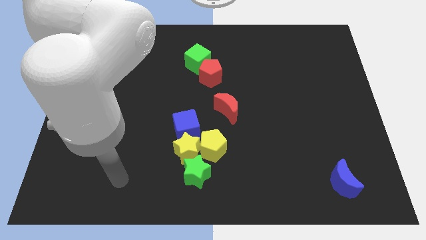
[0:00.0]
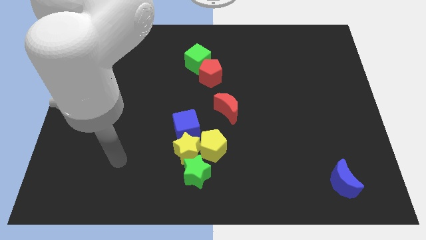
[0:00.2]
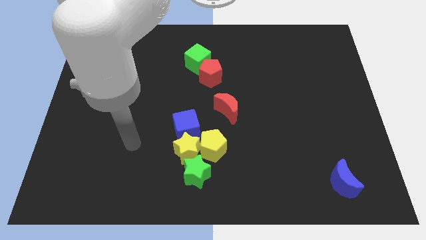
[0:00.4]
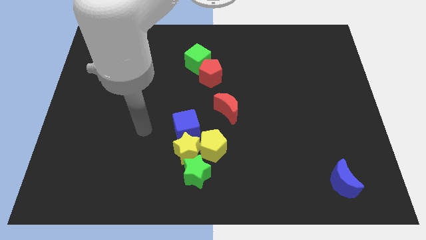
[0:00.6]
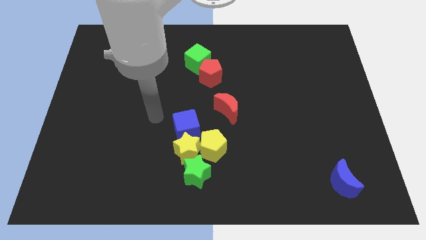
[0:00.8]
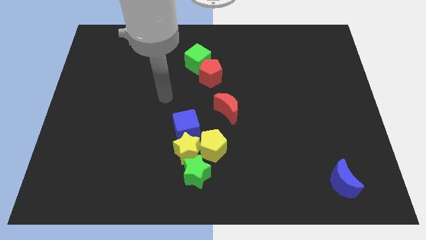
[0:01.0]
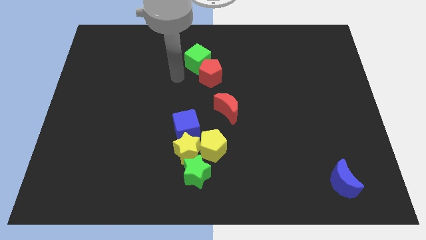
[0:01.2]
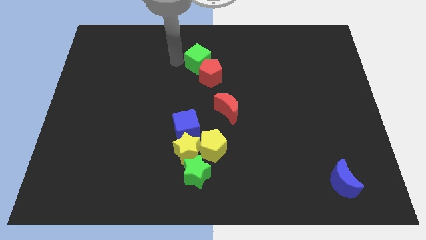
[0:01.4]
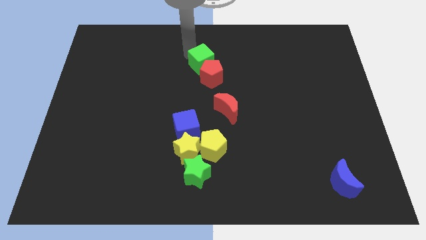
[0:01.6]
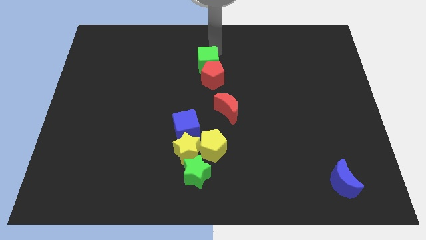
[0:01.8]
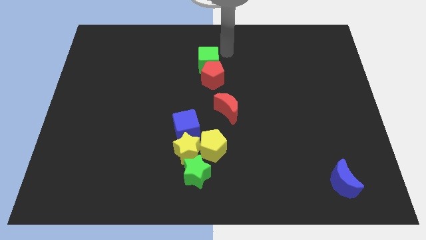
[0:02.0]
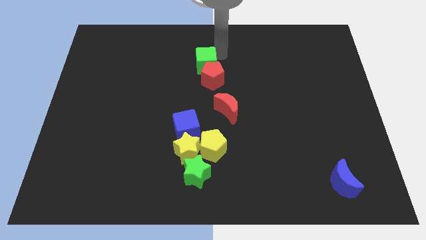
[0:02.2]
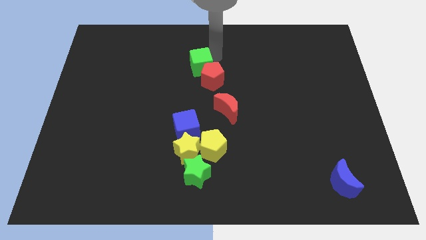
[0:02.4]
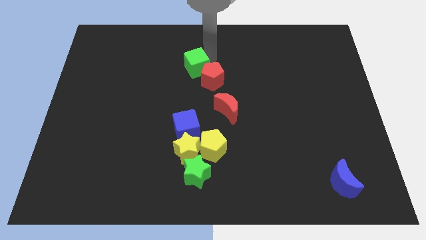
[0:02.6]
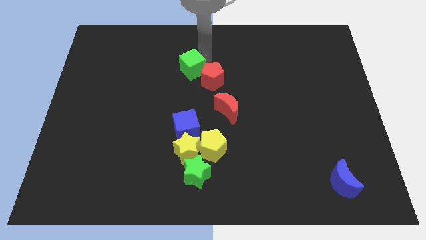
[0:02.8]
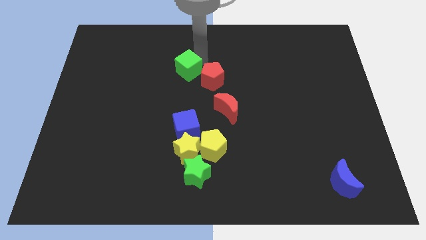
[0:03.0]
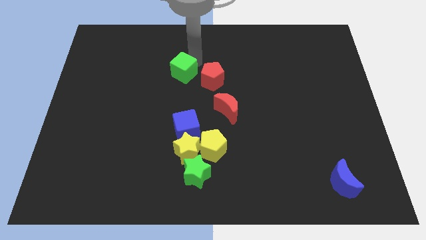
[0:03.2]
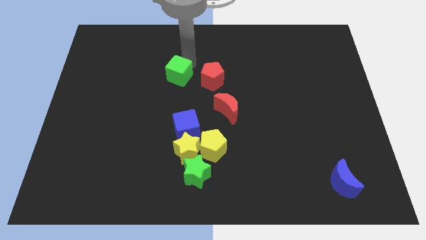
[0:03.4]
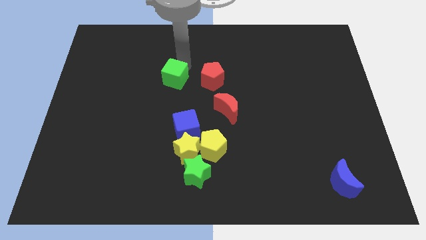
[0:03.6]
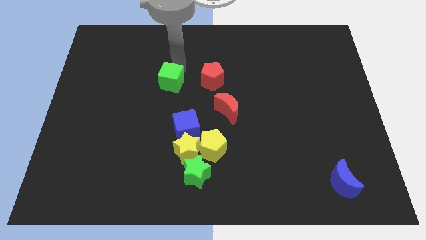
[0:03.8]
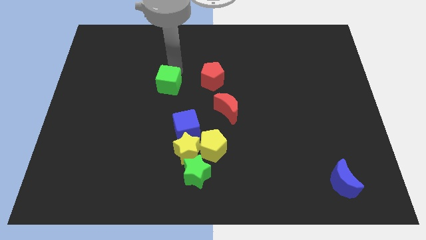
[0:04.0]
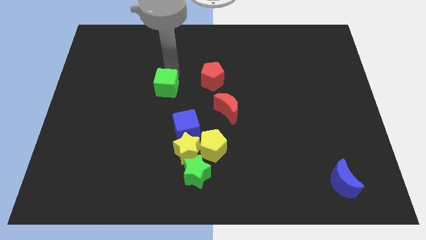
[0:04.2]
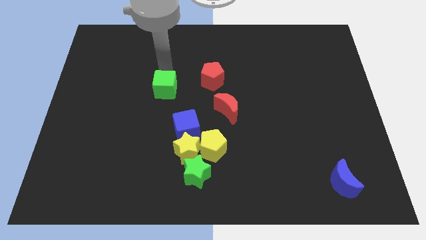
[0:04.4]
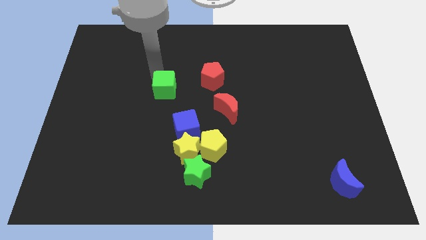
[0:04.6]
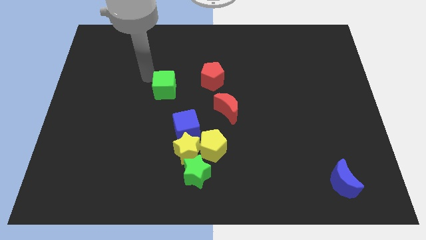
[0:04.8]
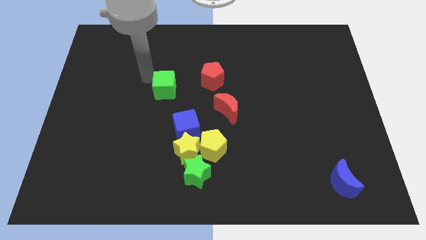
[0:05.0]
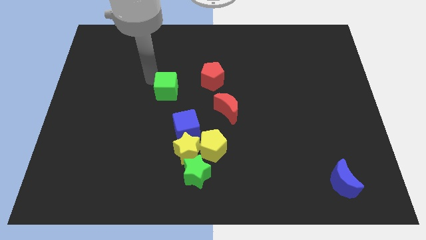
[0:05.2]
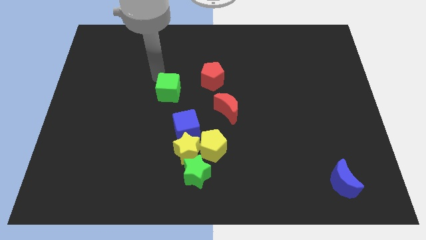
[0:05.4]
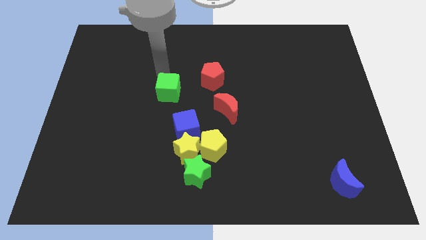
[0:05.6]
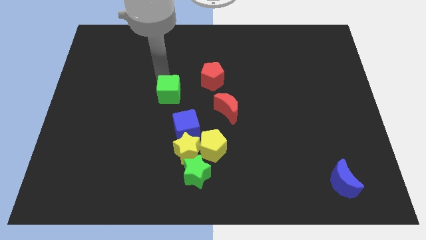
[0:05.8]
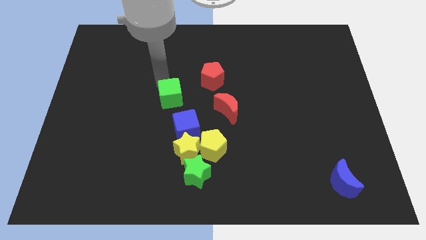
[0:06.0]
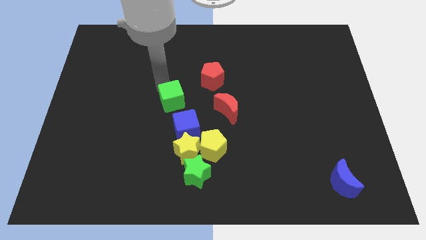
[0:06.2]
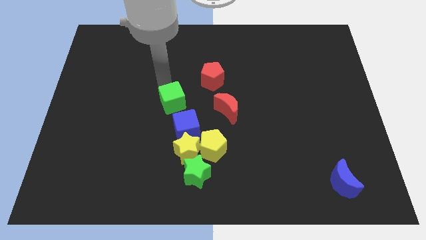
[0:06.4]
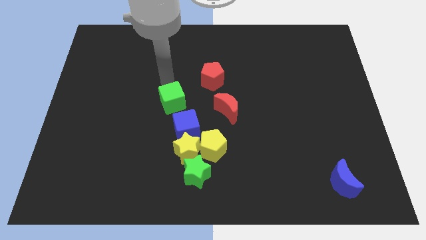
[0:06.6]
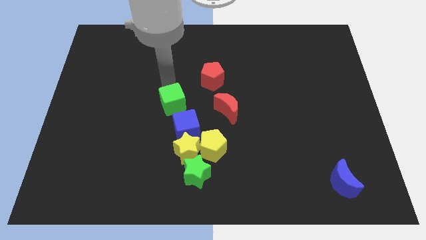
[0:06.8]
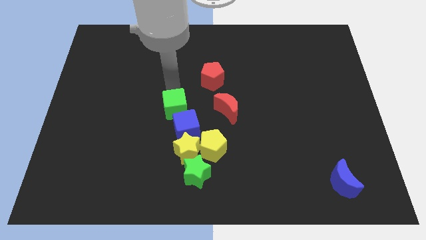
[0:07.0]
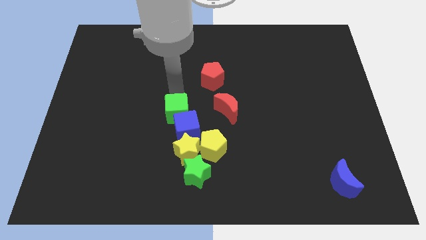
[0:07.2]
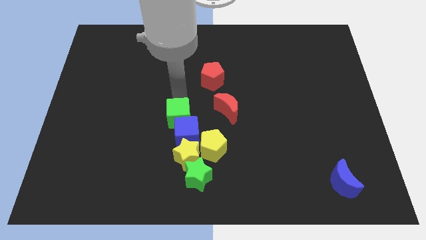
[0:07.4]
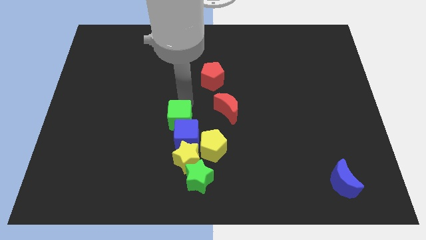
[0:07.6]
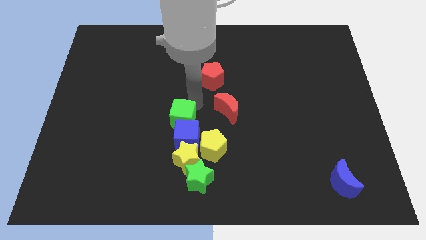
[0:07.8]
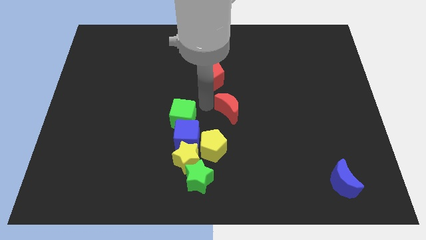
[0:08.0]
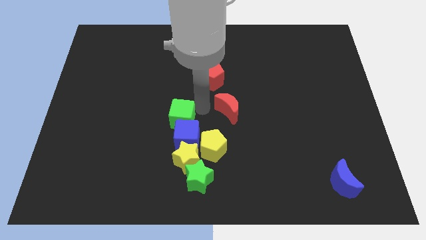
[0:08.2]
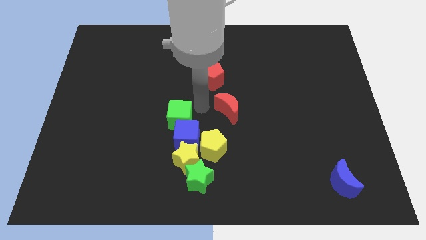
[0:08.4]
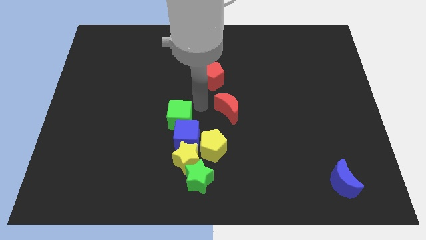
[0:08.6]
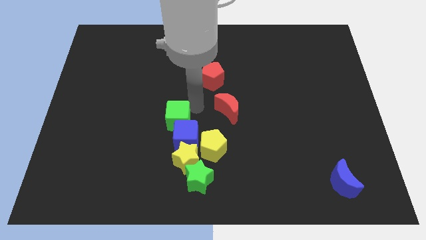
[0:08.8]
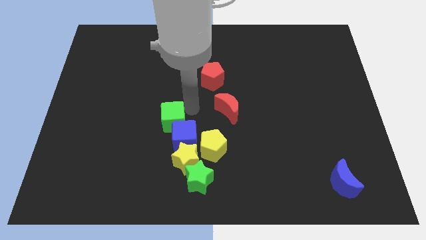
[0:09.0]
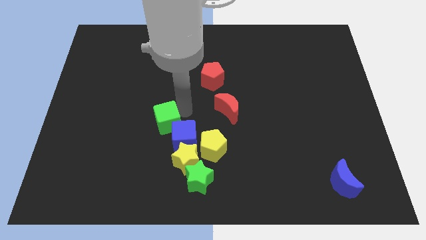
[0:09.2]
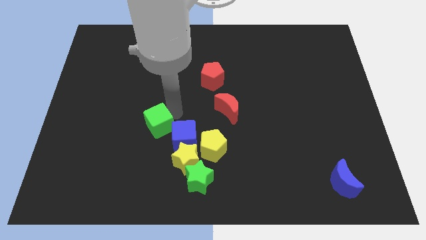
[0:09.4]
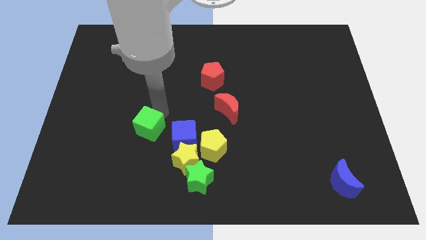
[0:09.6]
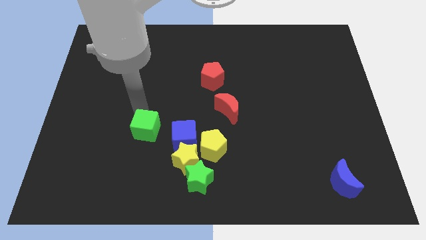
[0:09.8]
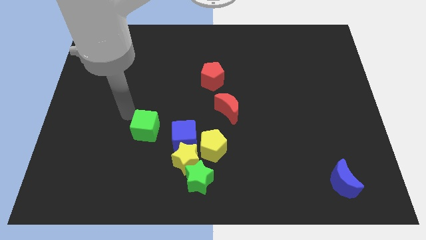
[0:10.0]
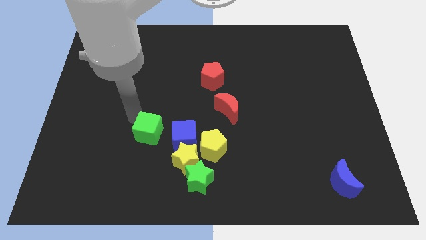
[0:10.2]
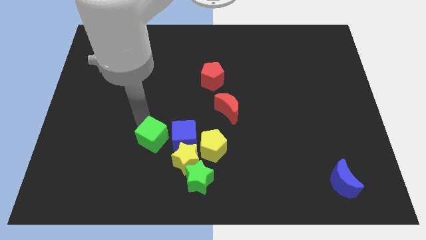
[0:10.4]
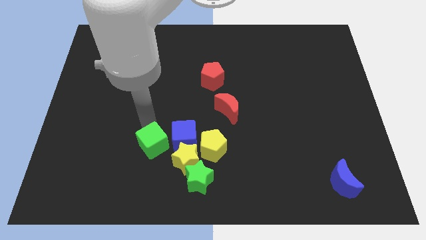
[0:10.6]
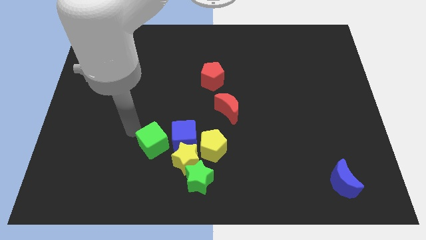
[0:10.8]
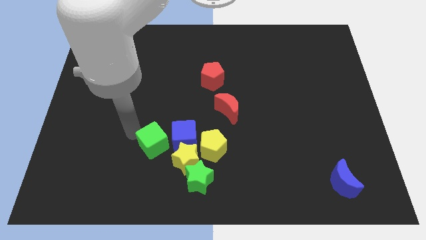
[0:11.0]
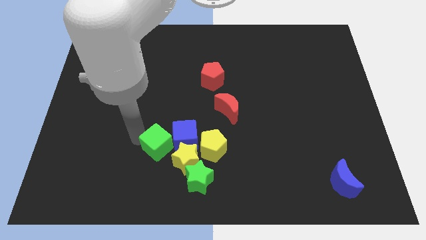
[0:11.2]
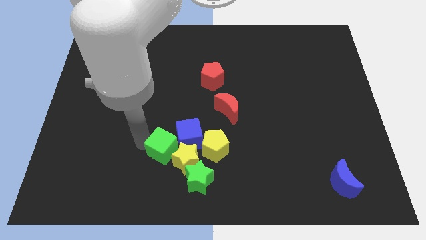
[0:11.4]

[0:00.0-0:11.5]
slide the green cube close to the yellow star

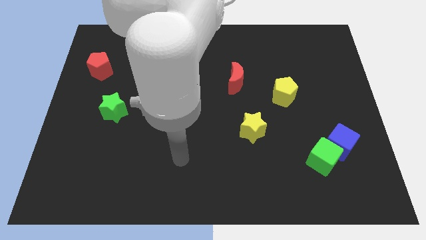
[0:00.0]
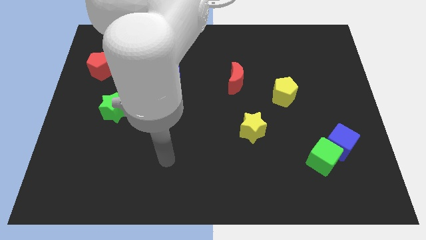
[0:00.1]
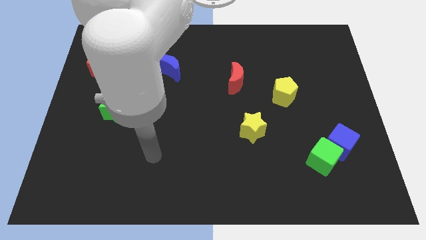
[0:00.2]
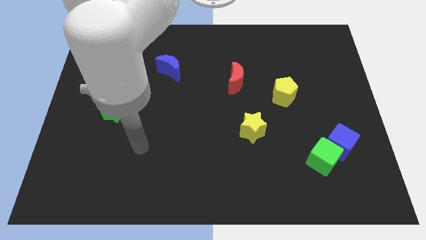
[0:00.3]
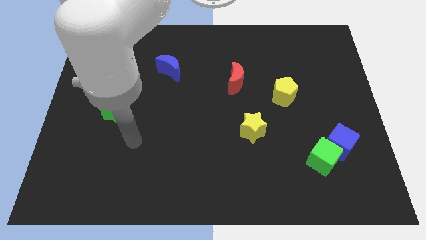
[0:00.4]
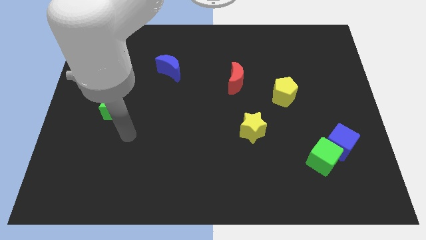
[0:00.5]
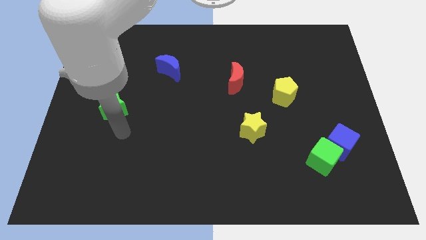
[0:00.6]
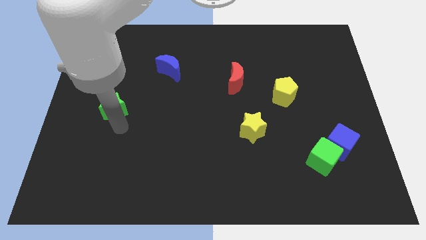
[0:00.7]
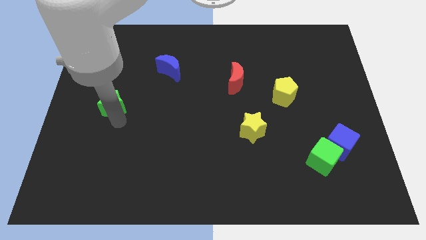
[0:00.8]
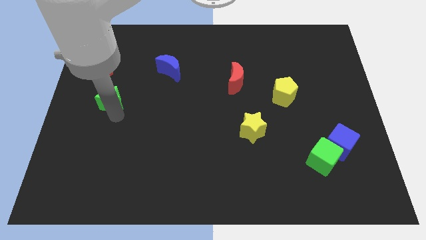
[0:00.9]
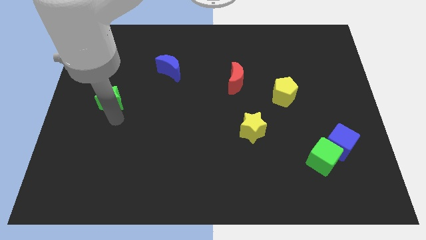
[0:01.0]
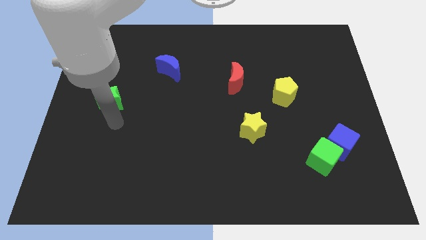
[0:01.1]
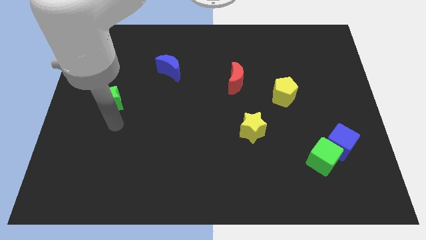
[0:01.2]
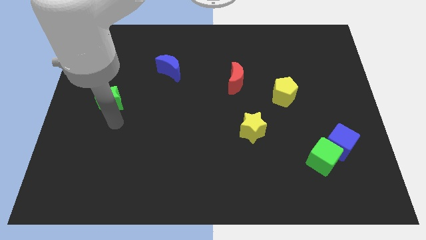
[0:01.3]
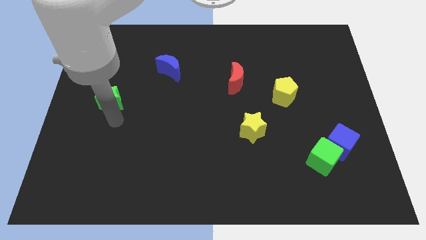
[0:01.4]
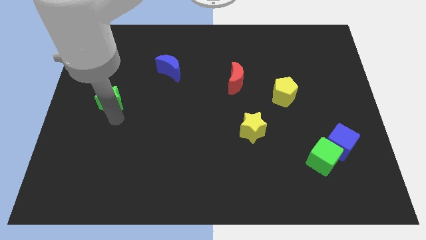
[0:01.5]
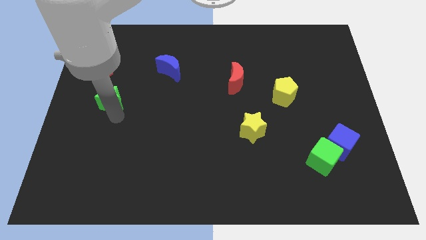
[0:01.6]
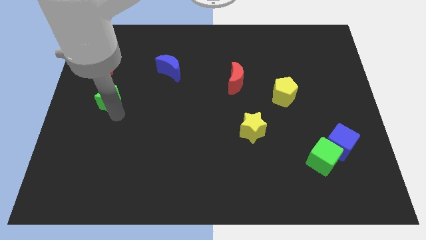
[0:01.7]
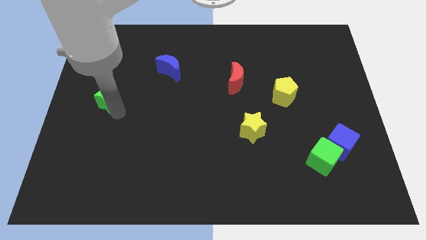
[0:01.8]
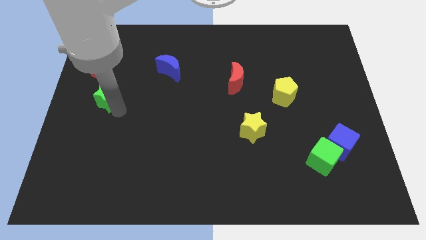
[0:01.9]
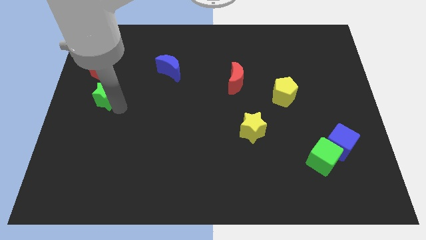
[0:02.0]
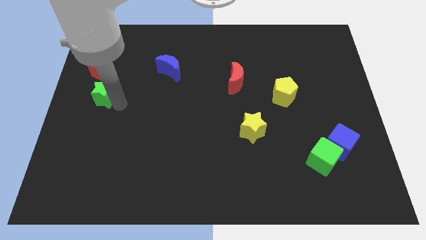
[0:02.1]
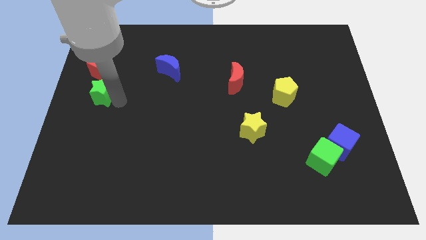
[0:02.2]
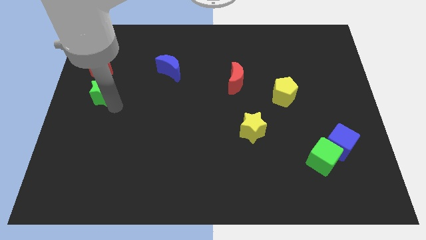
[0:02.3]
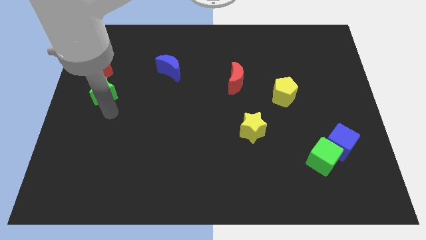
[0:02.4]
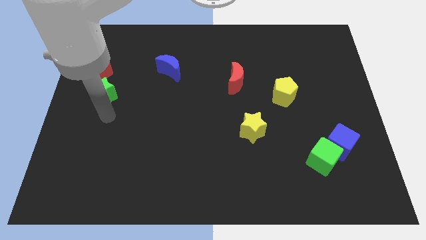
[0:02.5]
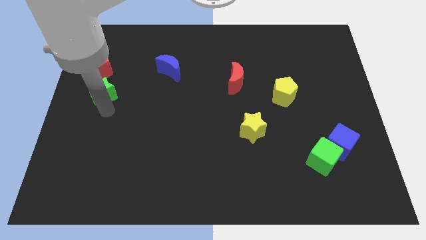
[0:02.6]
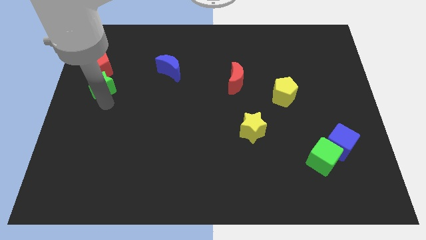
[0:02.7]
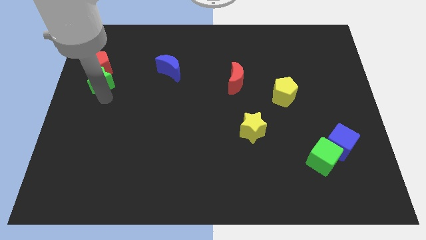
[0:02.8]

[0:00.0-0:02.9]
slide the green star to the red pentagon
